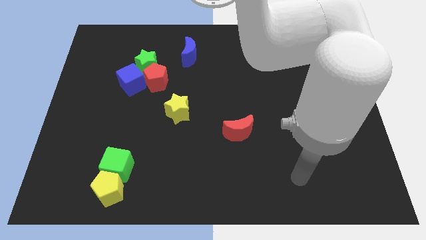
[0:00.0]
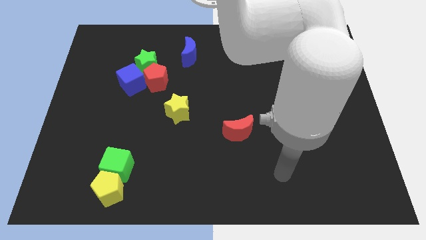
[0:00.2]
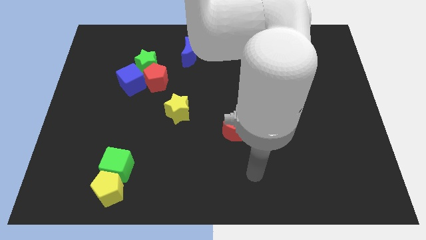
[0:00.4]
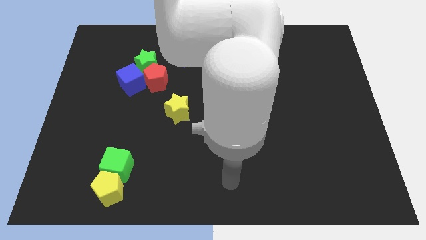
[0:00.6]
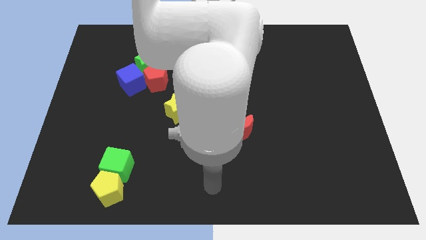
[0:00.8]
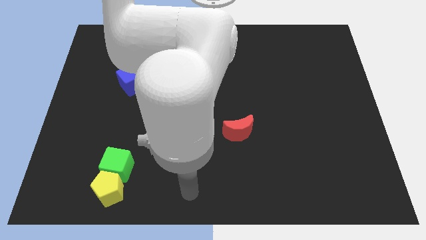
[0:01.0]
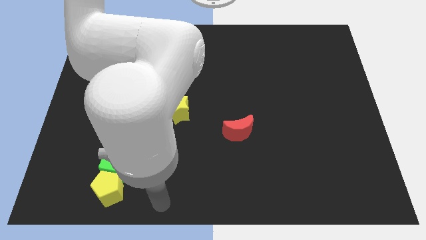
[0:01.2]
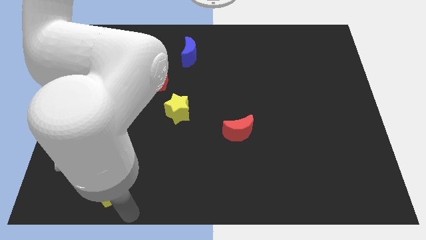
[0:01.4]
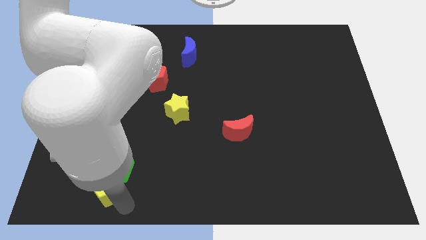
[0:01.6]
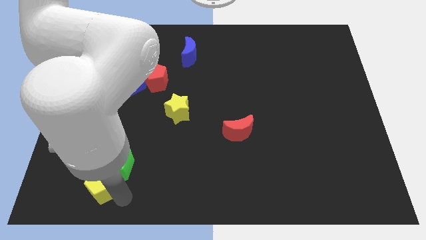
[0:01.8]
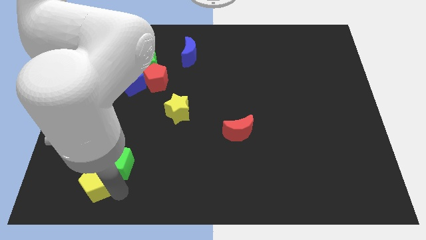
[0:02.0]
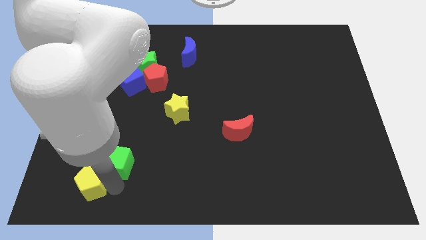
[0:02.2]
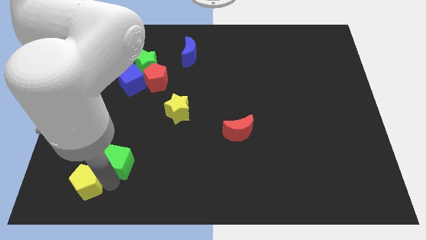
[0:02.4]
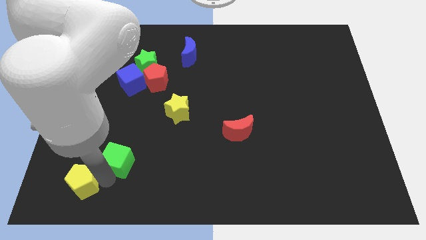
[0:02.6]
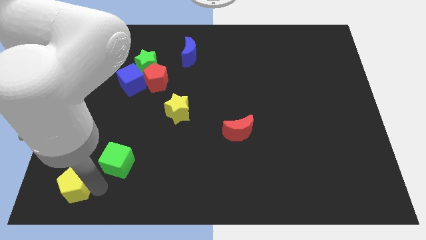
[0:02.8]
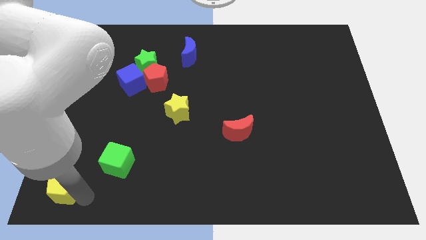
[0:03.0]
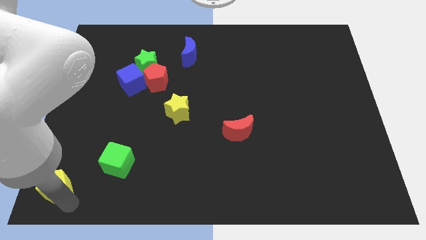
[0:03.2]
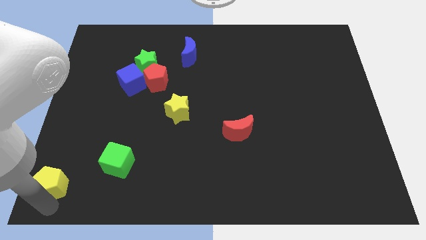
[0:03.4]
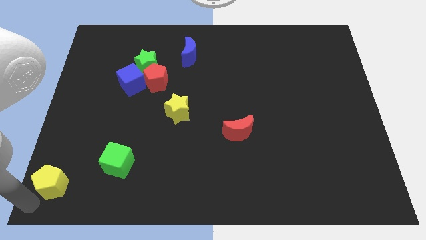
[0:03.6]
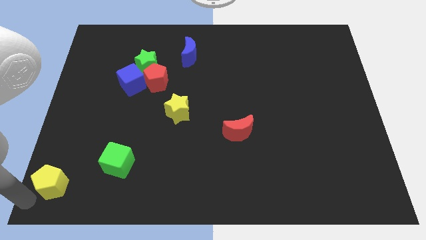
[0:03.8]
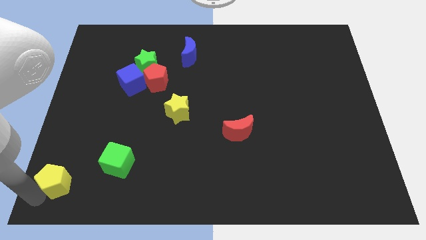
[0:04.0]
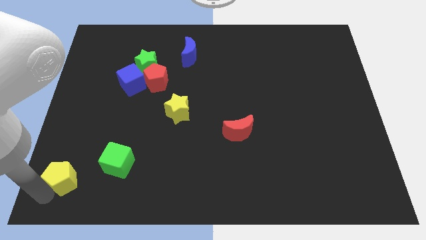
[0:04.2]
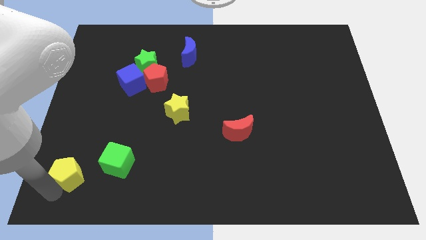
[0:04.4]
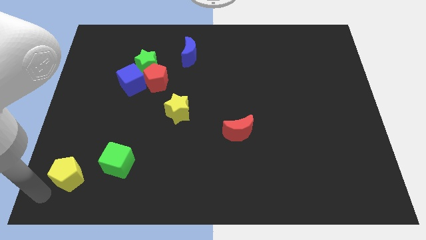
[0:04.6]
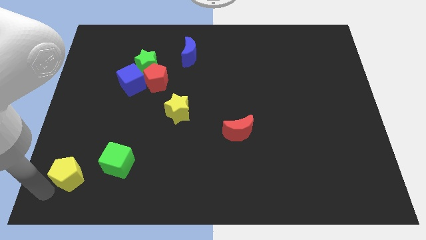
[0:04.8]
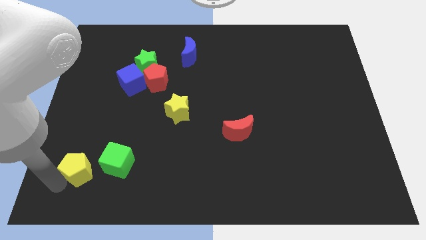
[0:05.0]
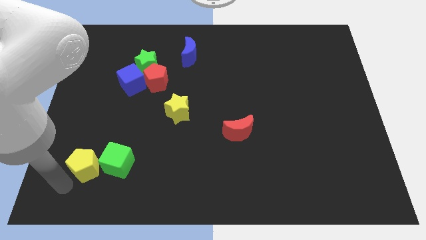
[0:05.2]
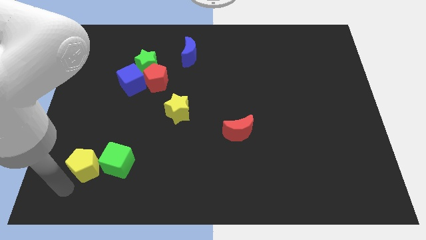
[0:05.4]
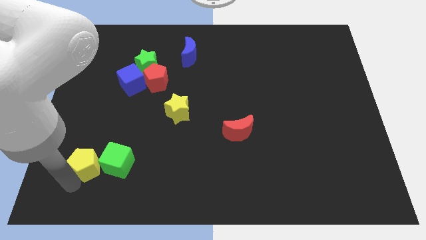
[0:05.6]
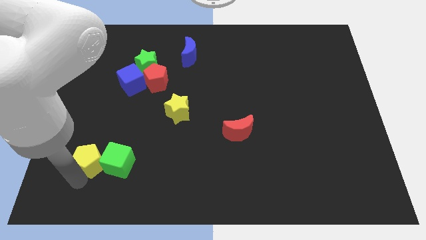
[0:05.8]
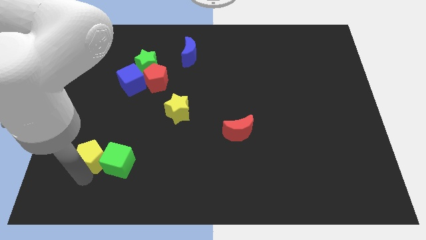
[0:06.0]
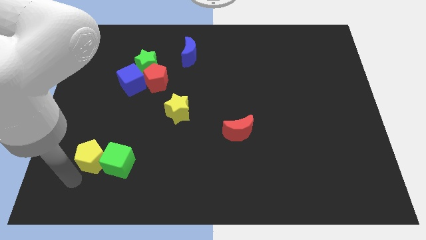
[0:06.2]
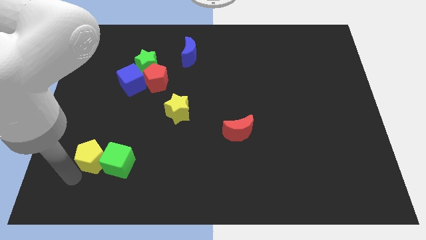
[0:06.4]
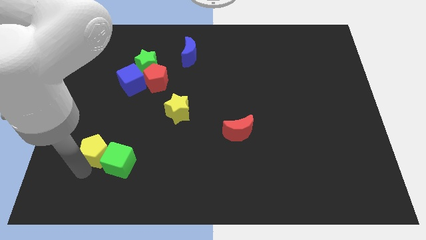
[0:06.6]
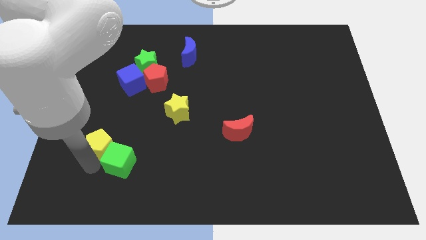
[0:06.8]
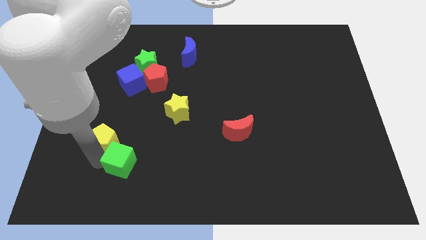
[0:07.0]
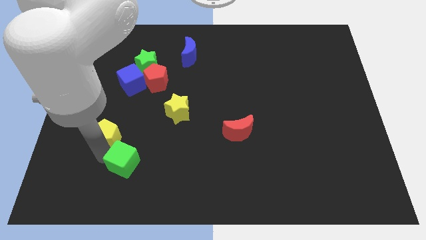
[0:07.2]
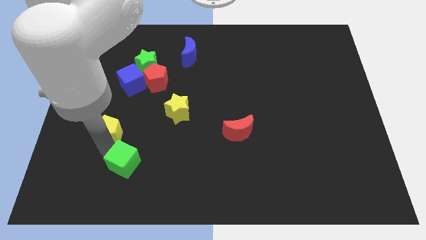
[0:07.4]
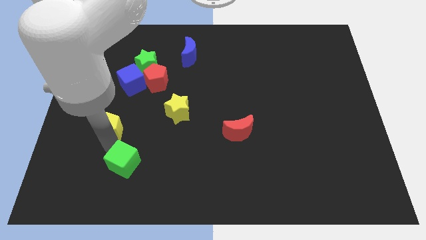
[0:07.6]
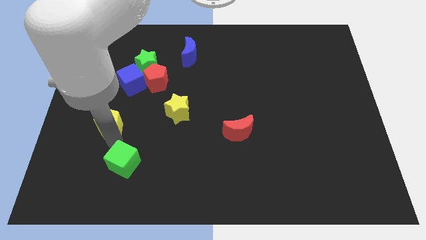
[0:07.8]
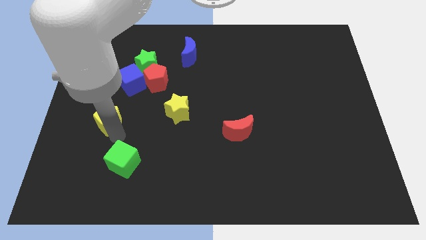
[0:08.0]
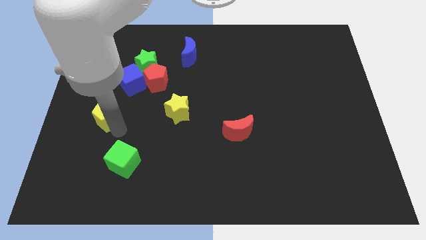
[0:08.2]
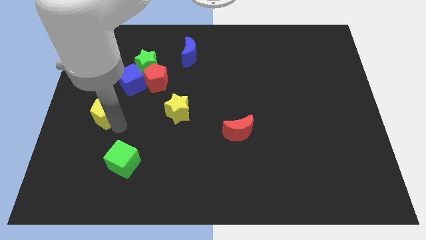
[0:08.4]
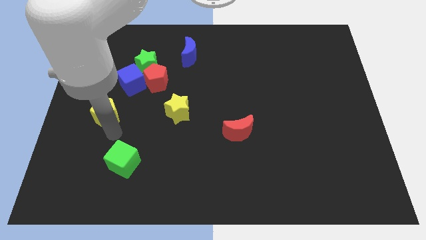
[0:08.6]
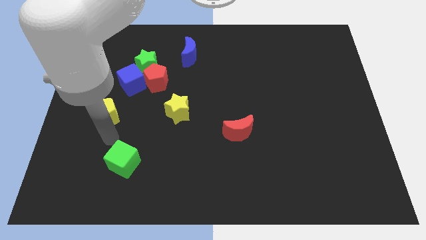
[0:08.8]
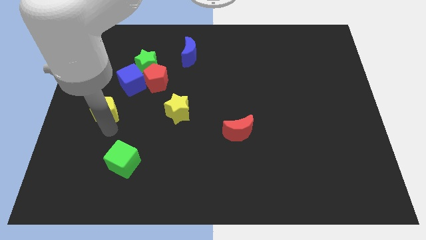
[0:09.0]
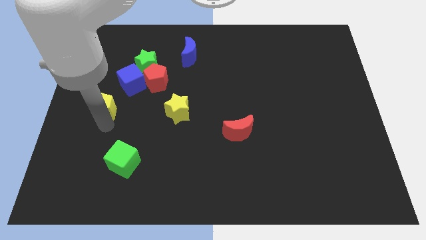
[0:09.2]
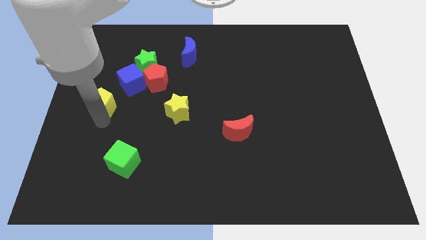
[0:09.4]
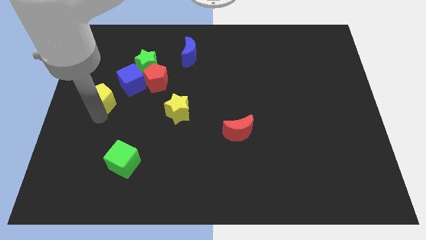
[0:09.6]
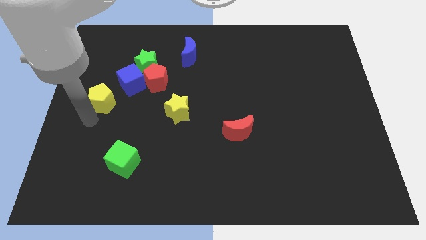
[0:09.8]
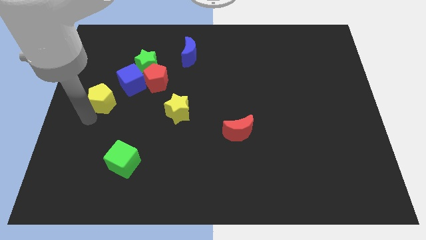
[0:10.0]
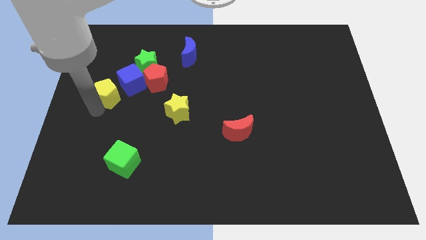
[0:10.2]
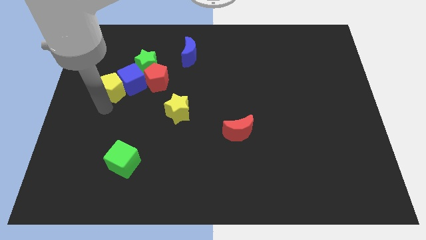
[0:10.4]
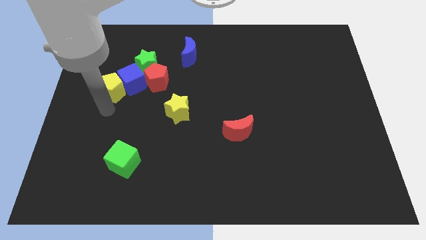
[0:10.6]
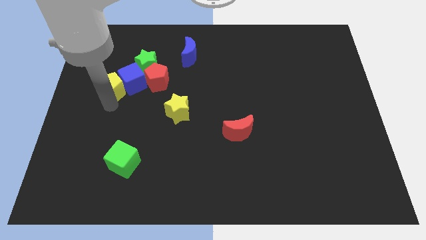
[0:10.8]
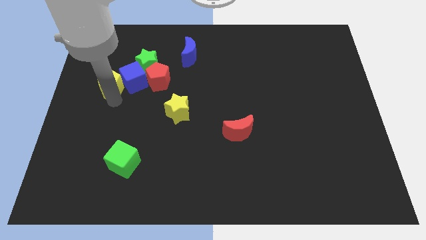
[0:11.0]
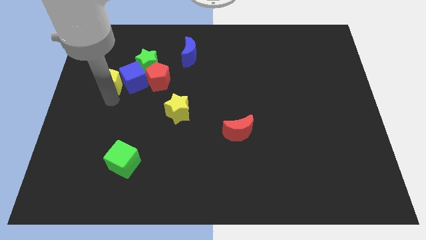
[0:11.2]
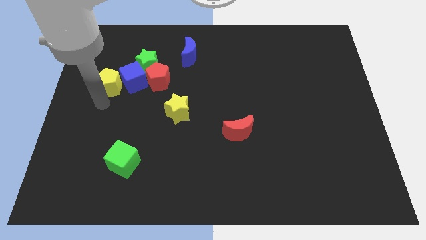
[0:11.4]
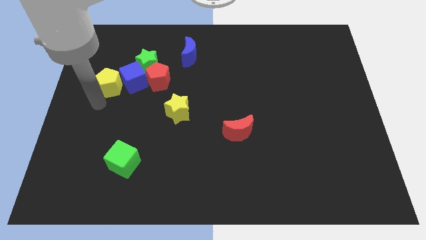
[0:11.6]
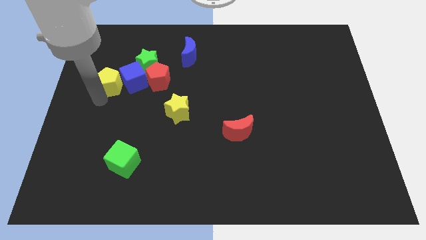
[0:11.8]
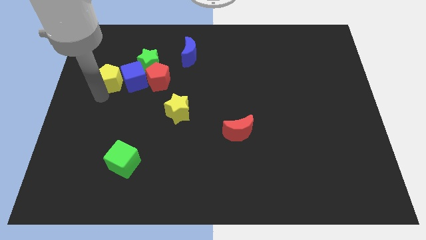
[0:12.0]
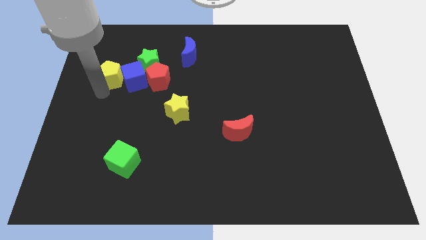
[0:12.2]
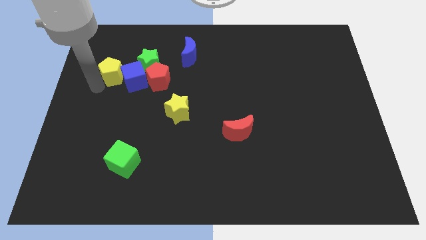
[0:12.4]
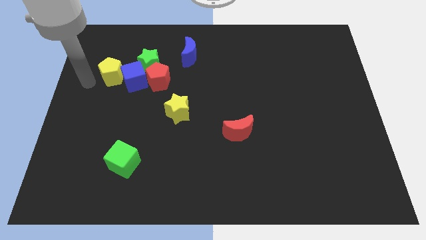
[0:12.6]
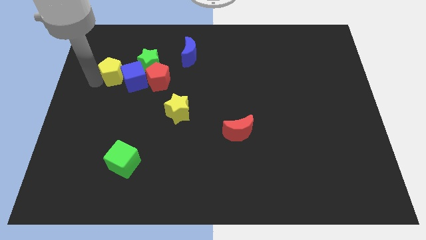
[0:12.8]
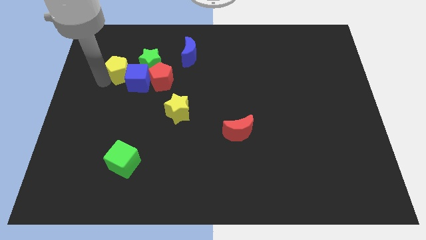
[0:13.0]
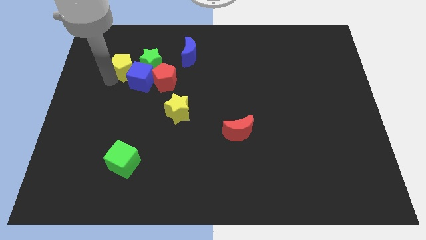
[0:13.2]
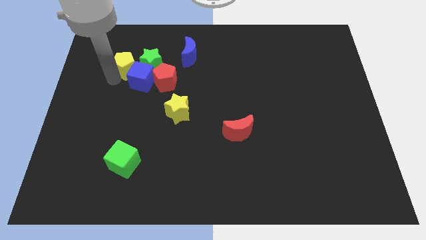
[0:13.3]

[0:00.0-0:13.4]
slide the yellow pentagon close to the green star
